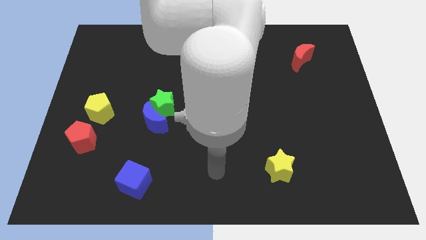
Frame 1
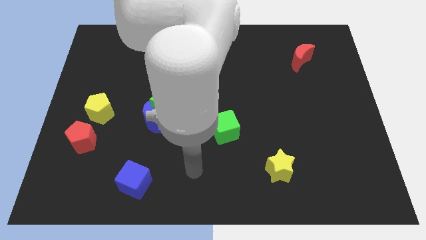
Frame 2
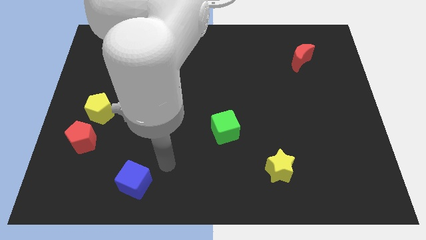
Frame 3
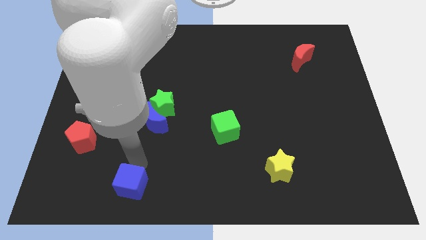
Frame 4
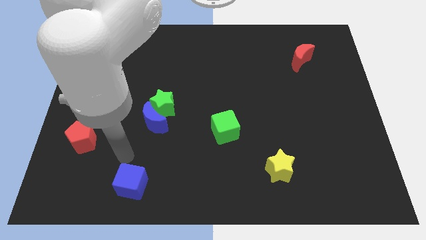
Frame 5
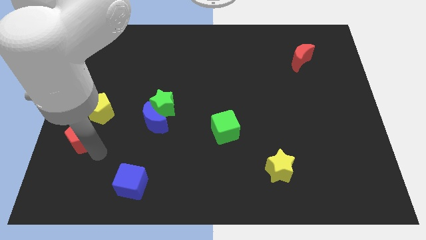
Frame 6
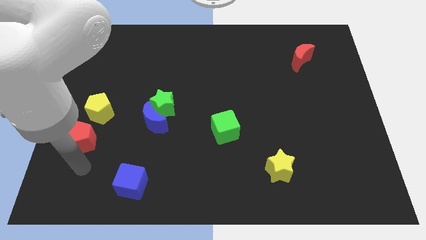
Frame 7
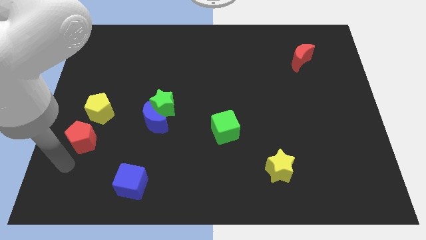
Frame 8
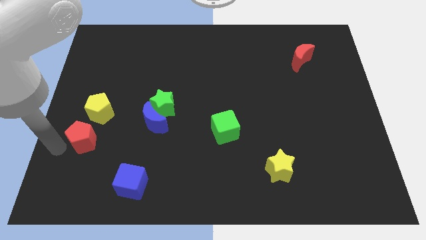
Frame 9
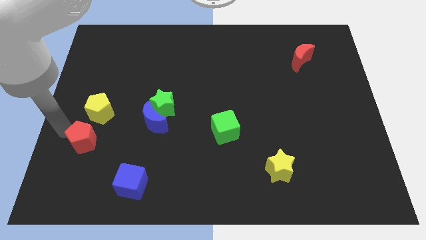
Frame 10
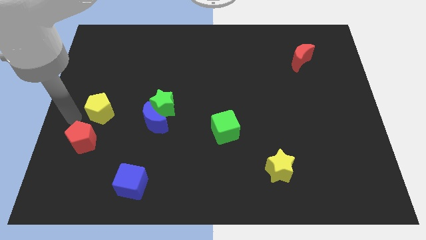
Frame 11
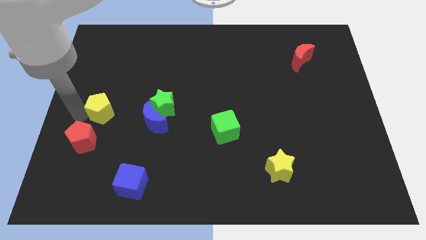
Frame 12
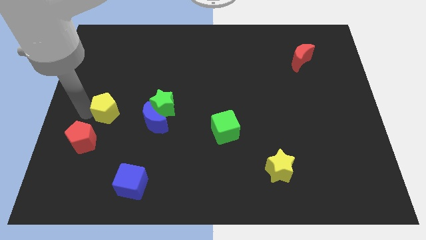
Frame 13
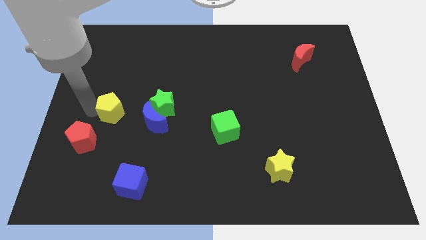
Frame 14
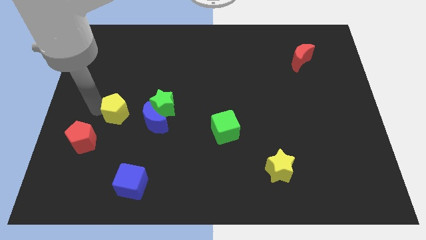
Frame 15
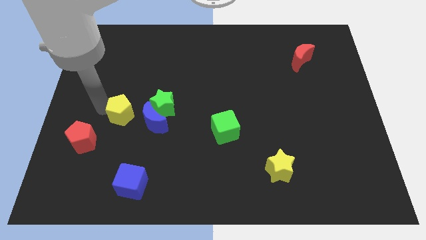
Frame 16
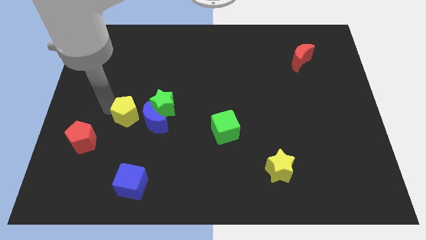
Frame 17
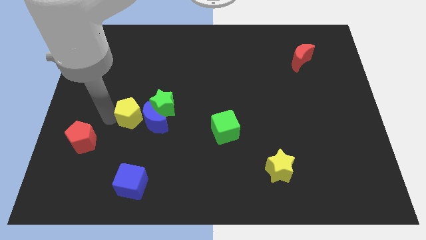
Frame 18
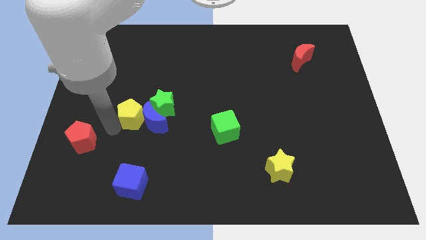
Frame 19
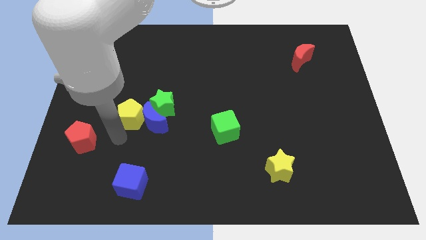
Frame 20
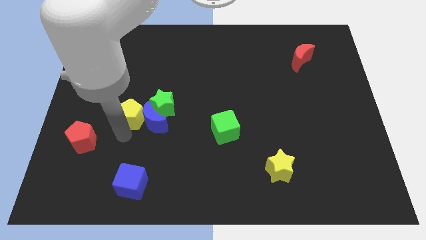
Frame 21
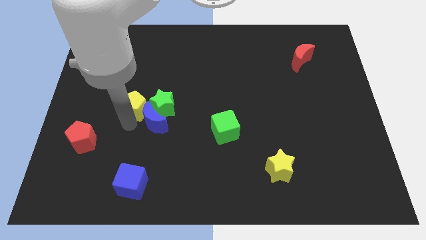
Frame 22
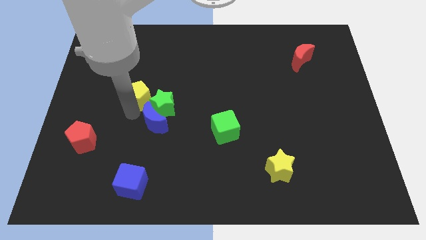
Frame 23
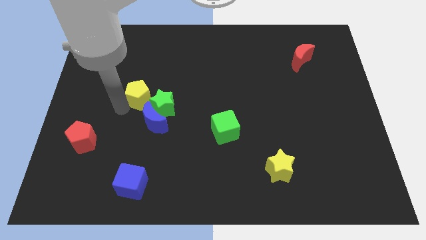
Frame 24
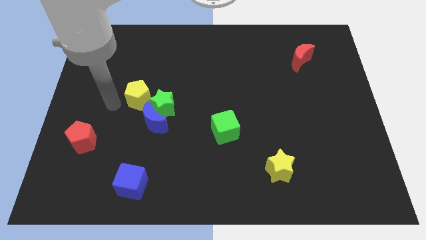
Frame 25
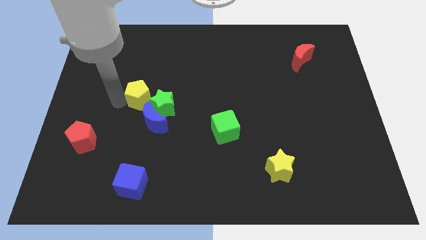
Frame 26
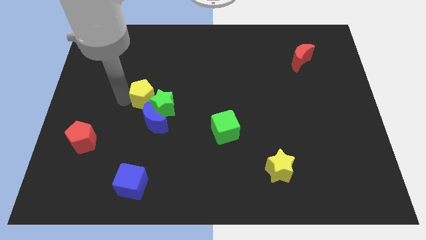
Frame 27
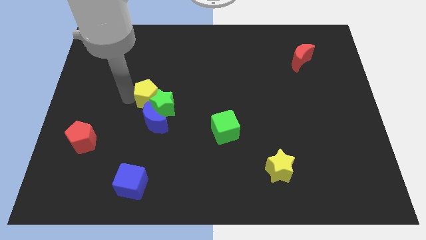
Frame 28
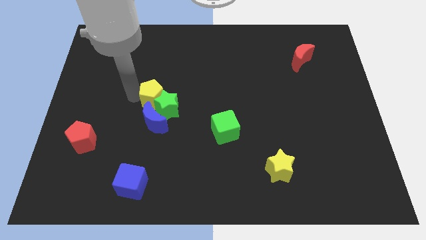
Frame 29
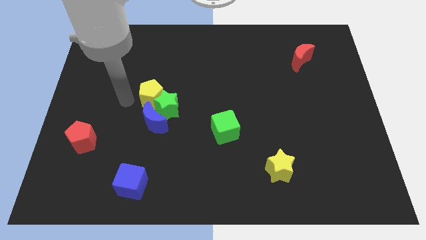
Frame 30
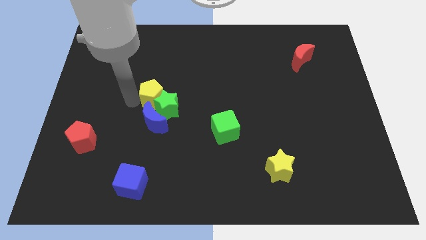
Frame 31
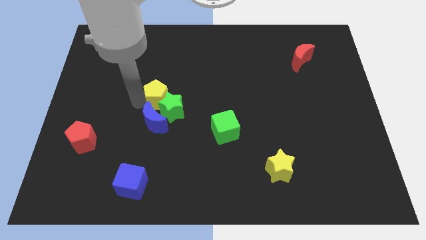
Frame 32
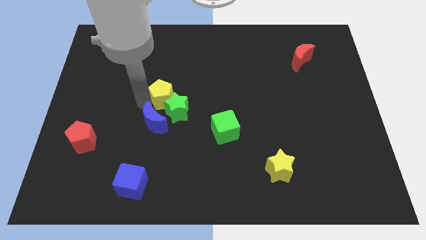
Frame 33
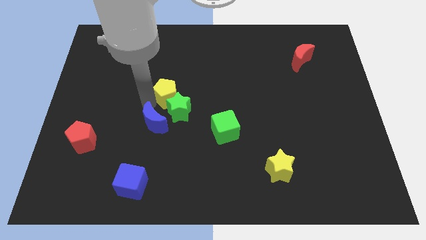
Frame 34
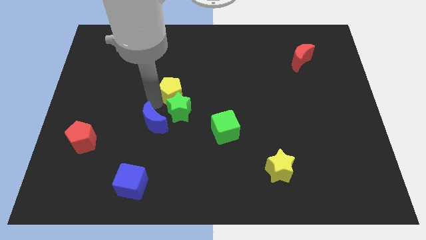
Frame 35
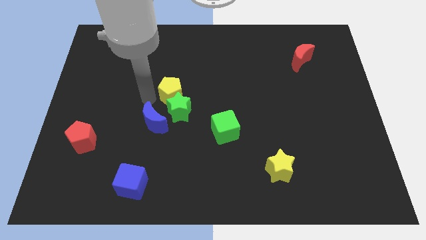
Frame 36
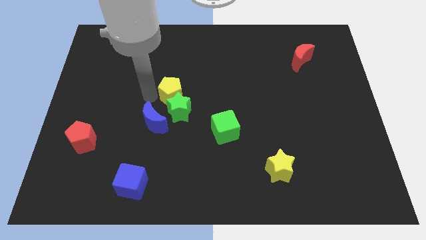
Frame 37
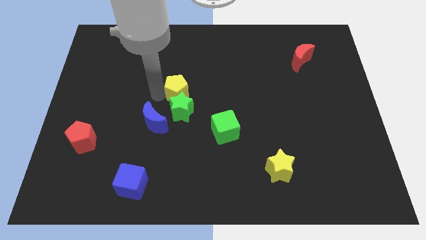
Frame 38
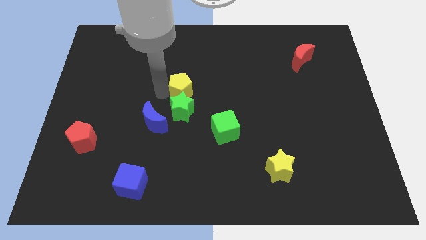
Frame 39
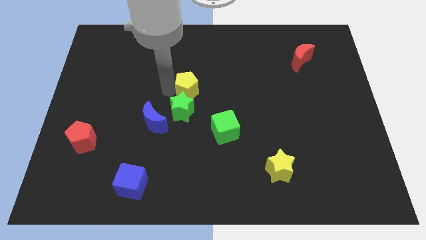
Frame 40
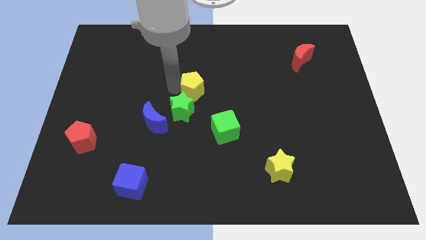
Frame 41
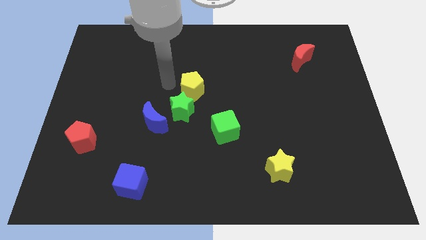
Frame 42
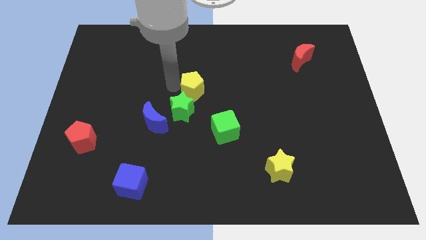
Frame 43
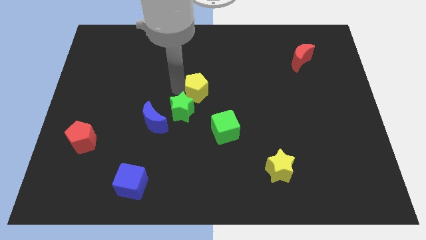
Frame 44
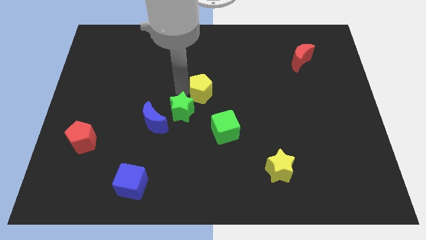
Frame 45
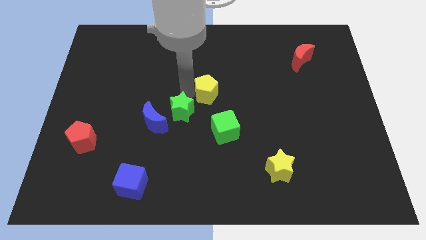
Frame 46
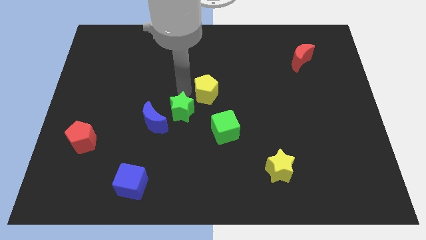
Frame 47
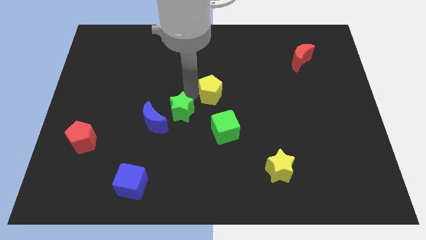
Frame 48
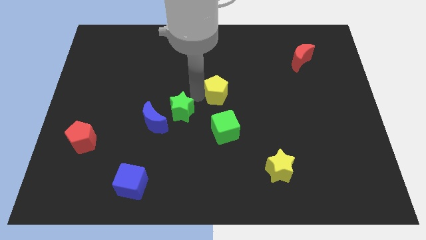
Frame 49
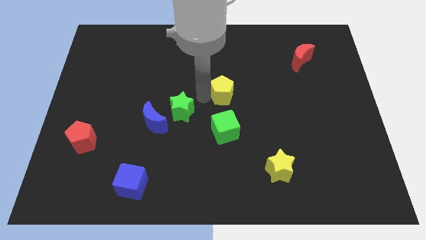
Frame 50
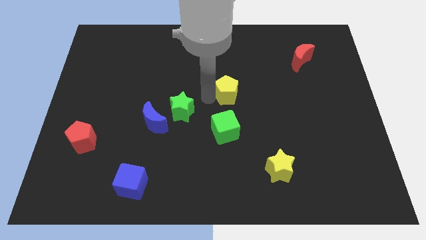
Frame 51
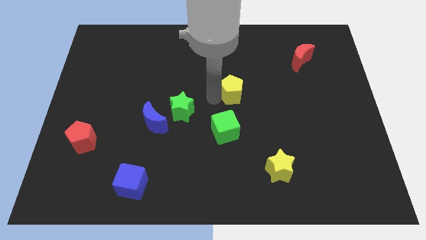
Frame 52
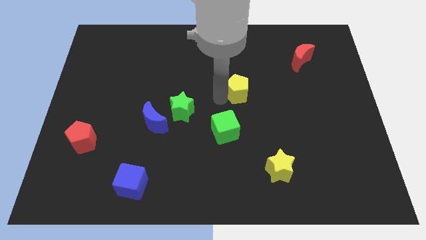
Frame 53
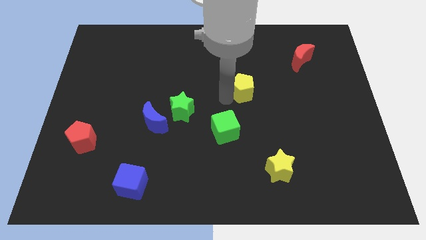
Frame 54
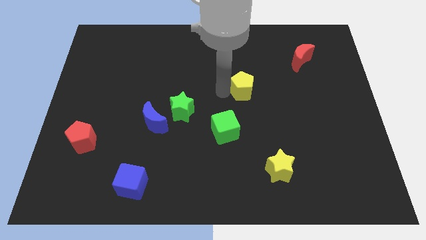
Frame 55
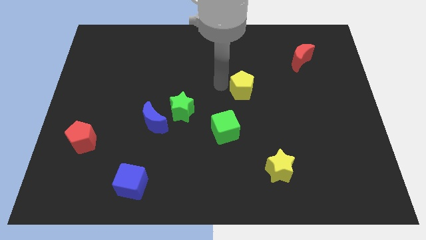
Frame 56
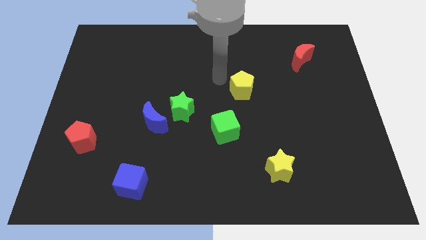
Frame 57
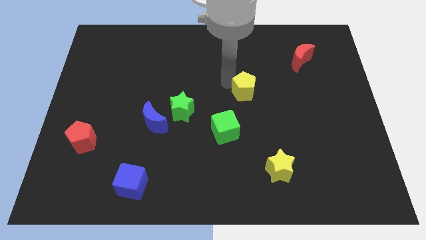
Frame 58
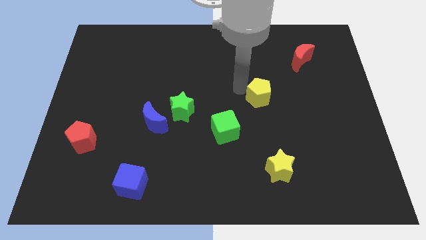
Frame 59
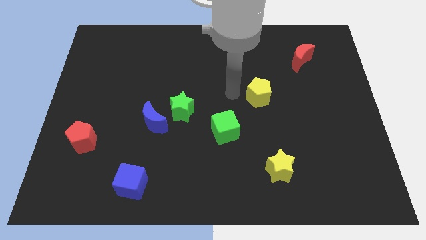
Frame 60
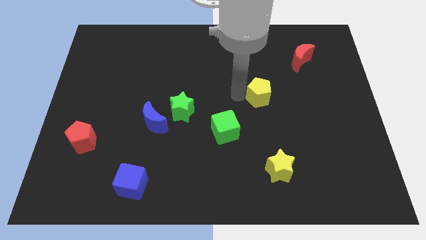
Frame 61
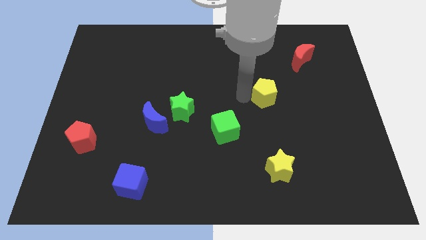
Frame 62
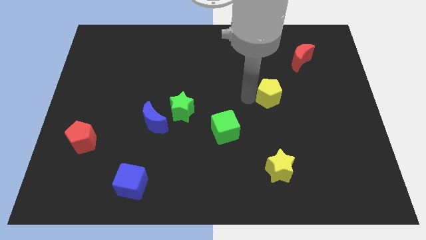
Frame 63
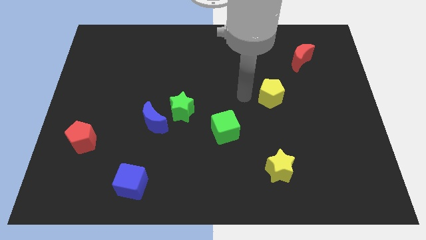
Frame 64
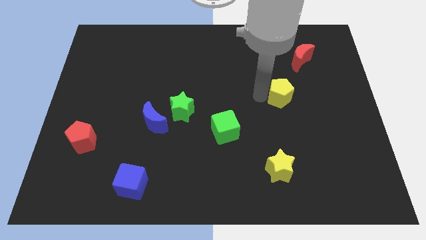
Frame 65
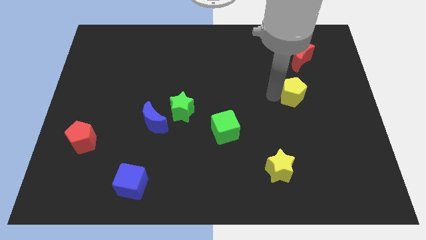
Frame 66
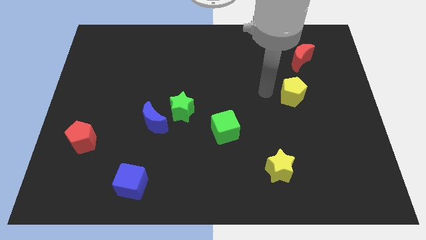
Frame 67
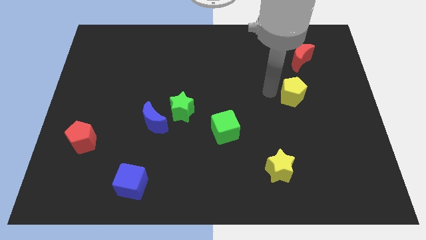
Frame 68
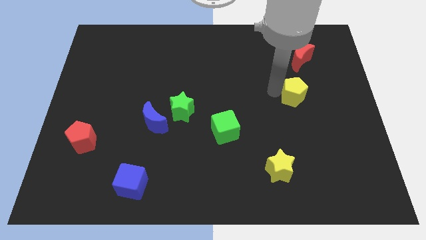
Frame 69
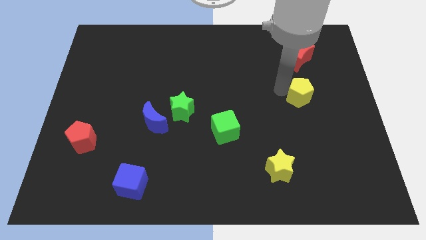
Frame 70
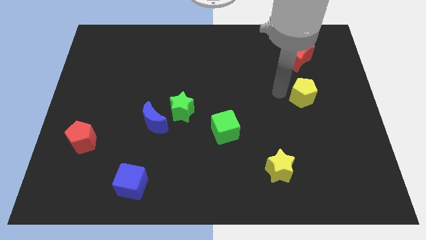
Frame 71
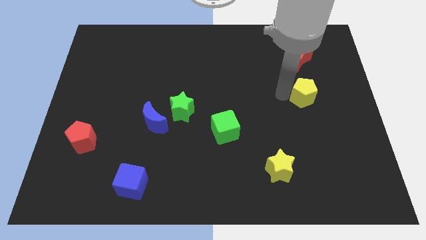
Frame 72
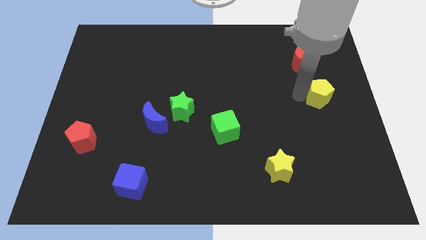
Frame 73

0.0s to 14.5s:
move the yellow pentagon to the right side of the board
